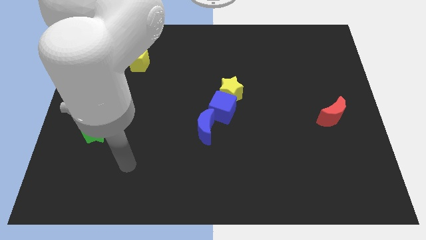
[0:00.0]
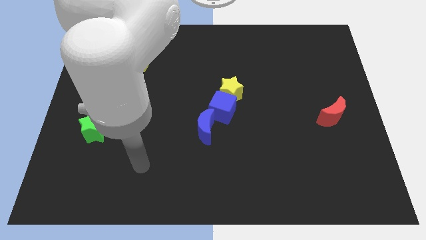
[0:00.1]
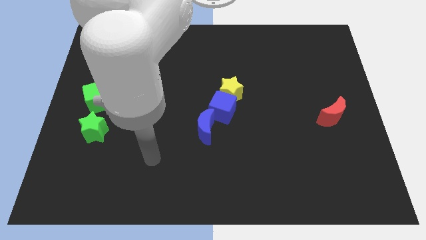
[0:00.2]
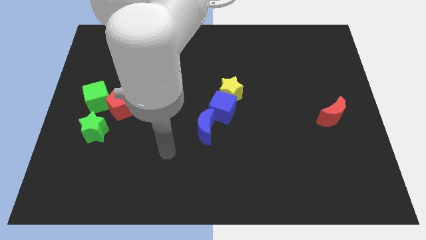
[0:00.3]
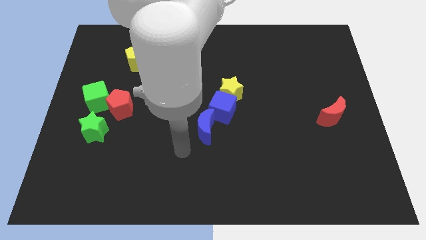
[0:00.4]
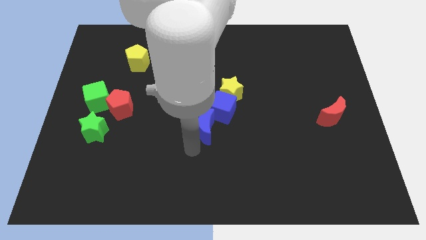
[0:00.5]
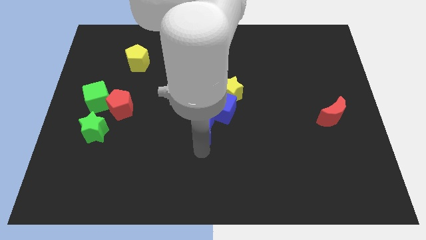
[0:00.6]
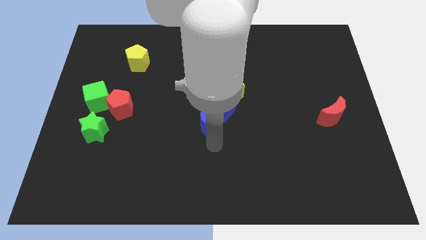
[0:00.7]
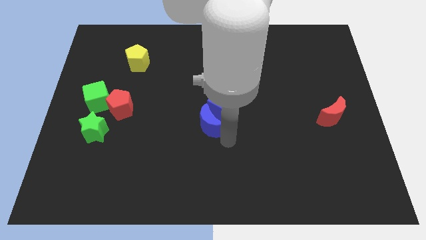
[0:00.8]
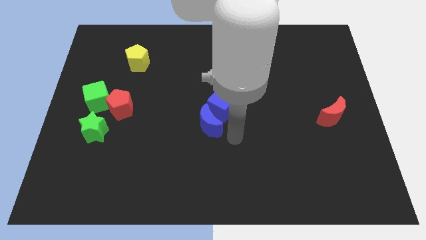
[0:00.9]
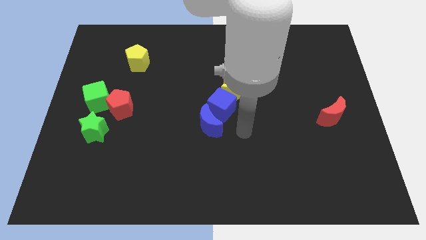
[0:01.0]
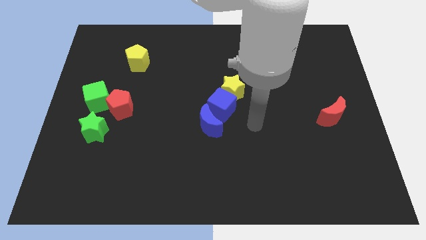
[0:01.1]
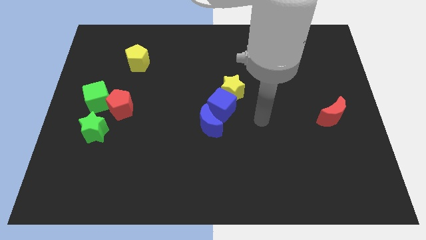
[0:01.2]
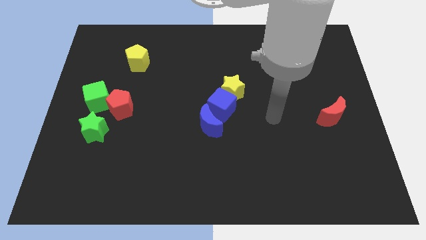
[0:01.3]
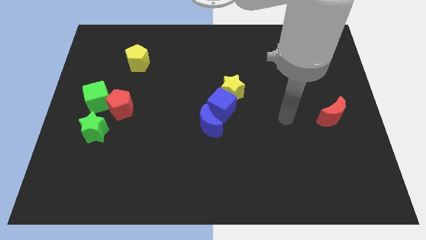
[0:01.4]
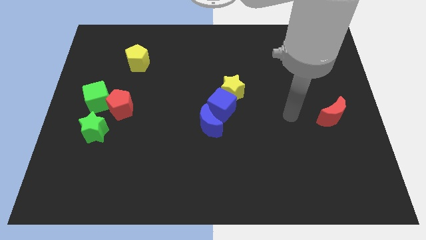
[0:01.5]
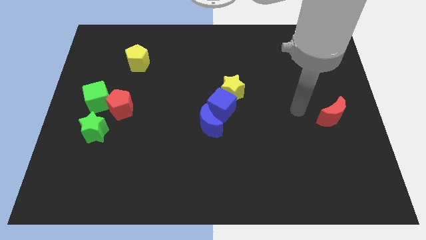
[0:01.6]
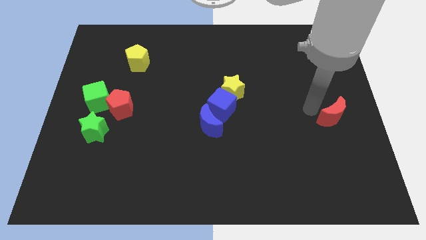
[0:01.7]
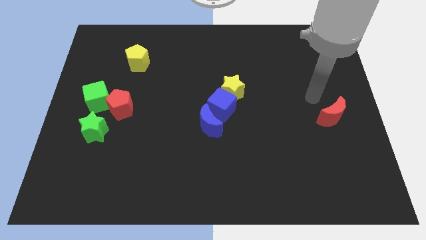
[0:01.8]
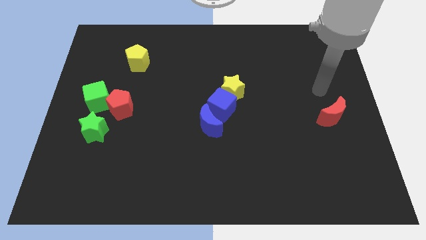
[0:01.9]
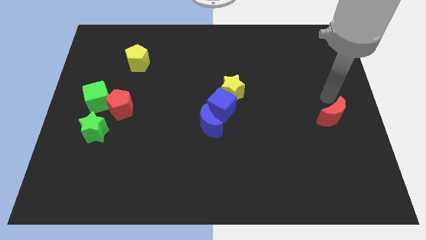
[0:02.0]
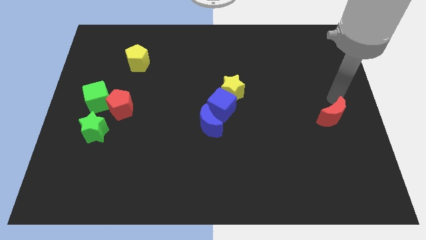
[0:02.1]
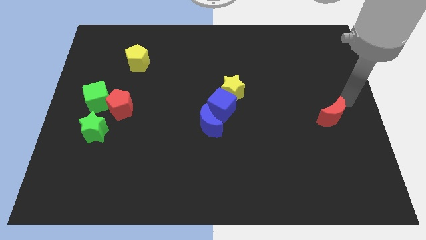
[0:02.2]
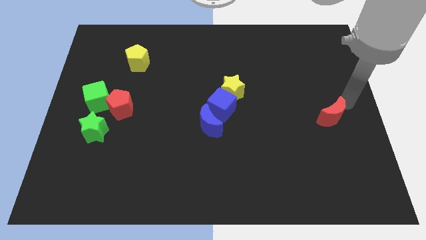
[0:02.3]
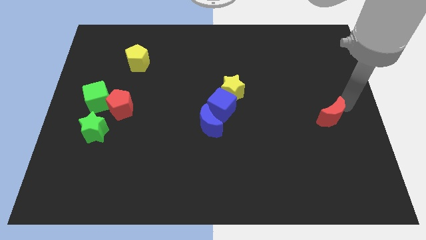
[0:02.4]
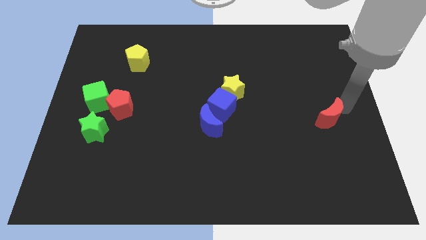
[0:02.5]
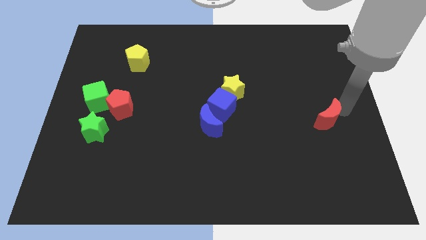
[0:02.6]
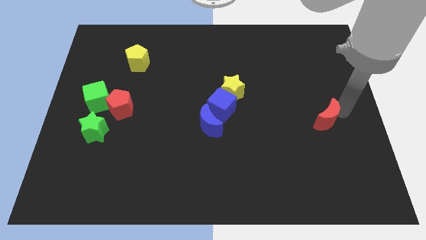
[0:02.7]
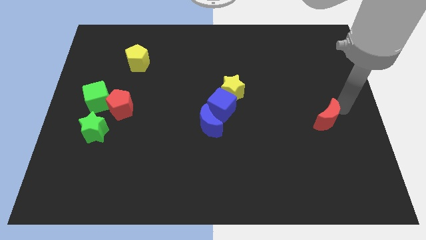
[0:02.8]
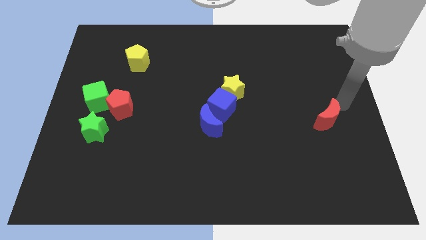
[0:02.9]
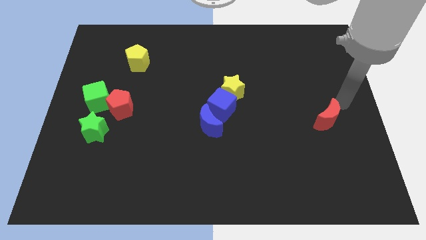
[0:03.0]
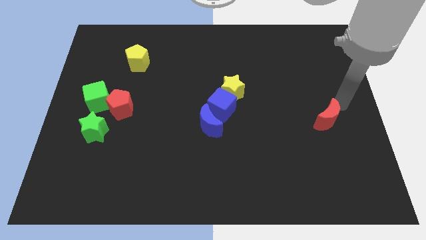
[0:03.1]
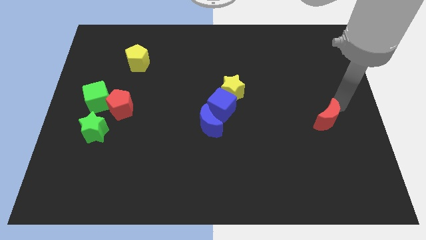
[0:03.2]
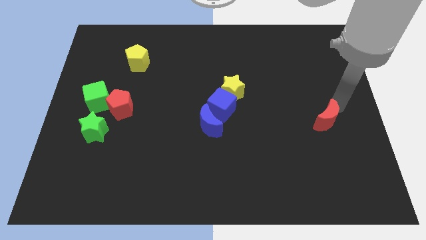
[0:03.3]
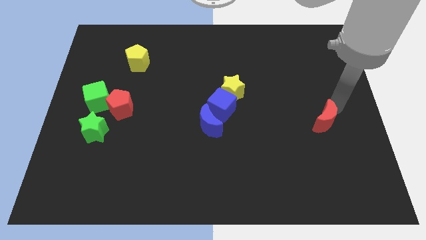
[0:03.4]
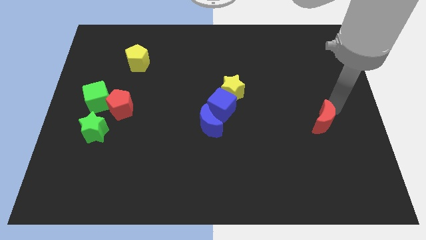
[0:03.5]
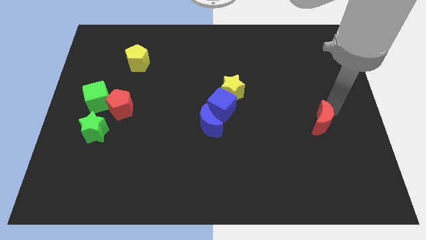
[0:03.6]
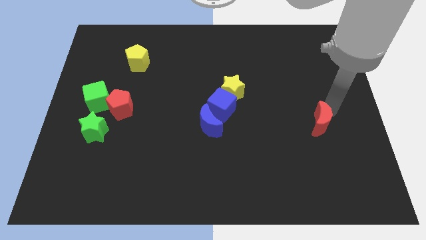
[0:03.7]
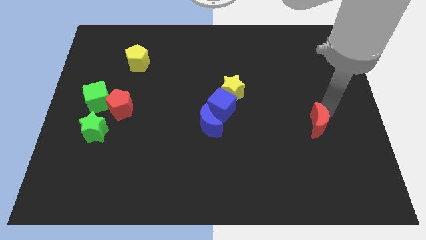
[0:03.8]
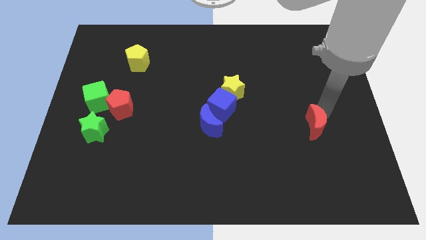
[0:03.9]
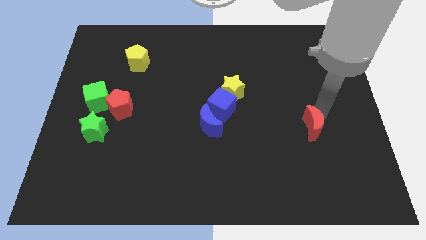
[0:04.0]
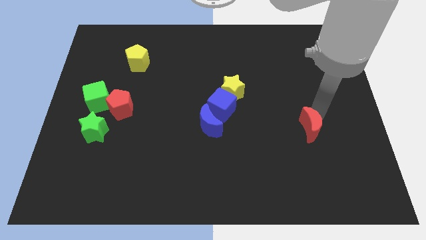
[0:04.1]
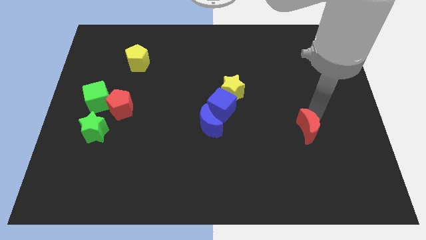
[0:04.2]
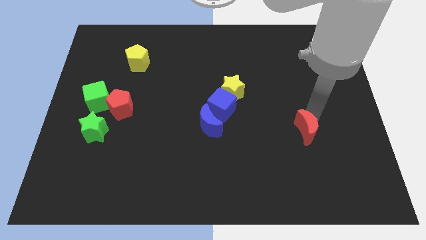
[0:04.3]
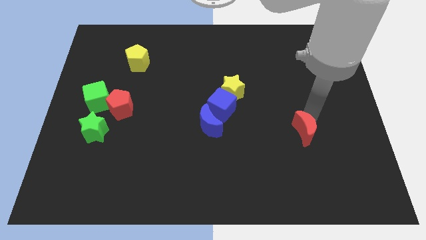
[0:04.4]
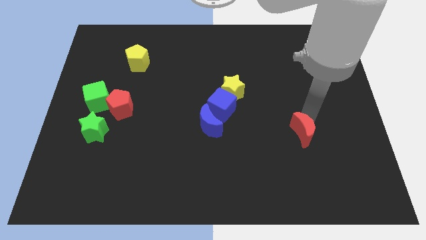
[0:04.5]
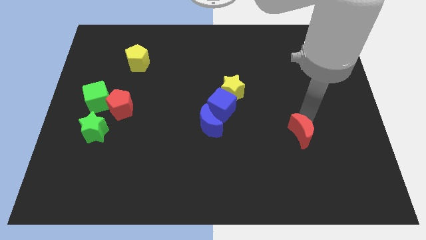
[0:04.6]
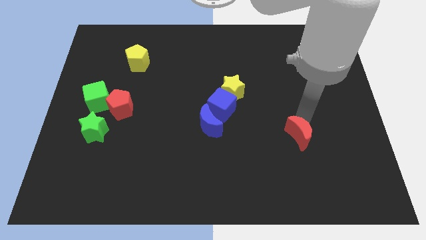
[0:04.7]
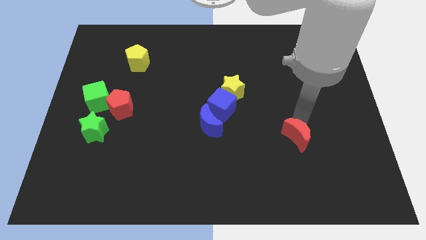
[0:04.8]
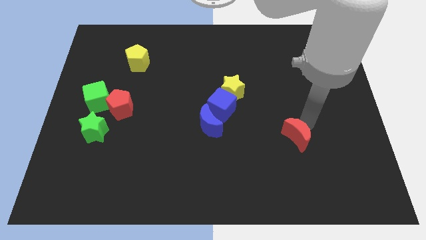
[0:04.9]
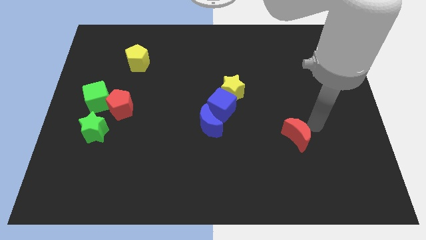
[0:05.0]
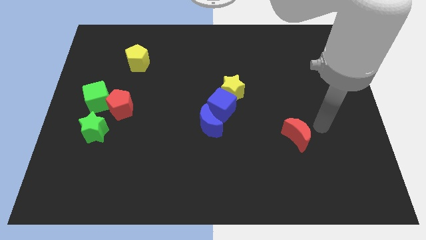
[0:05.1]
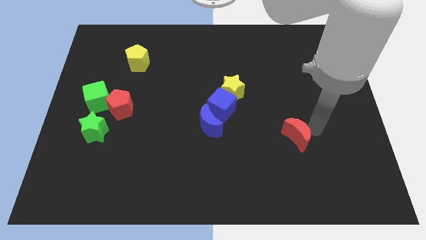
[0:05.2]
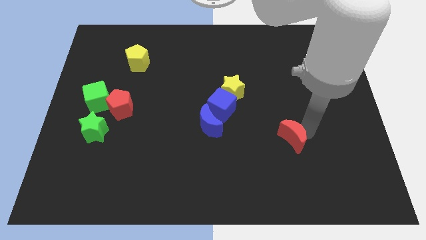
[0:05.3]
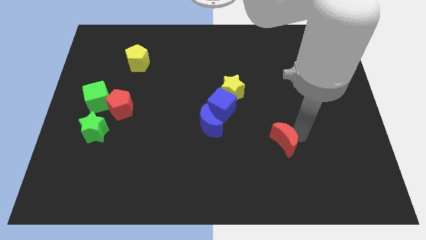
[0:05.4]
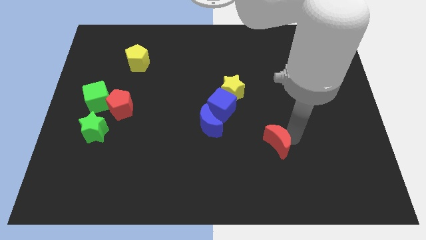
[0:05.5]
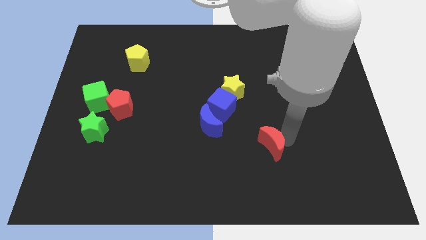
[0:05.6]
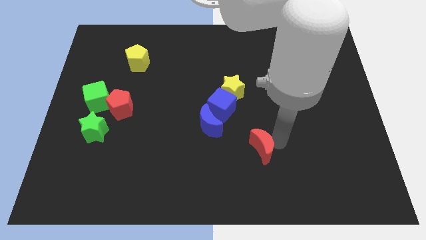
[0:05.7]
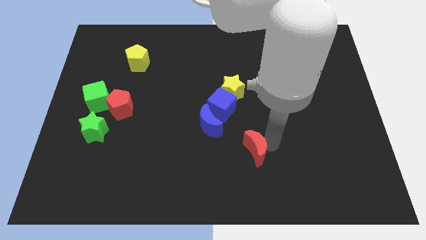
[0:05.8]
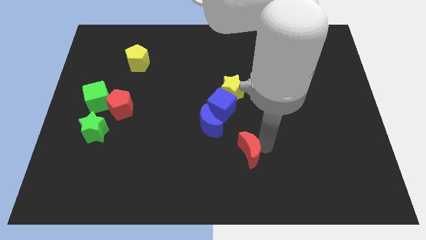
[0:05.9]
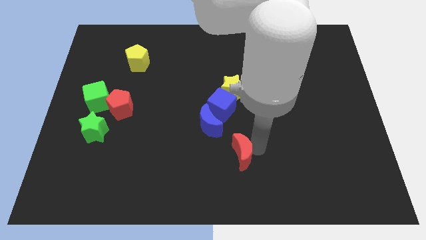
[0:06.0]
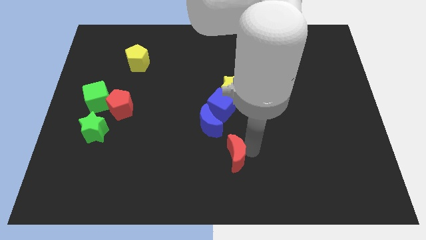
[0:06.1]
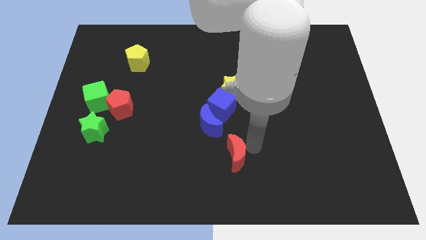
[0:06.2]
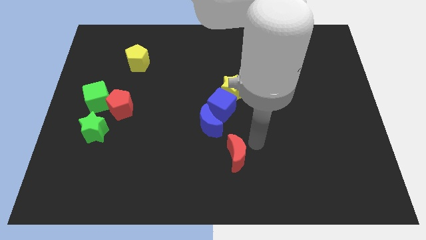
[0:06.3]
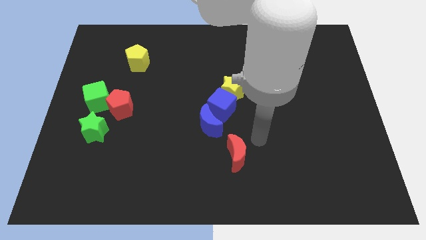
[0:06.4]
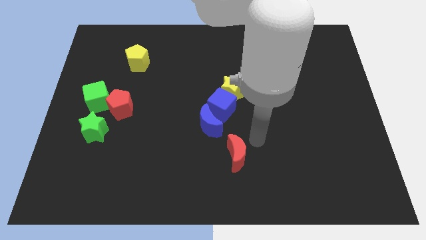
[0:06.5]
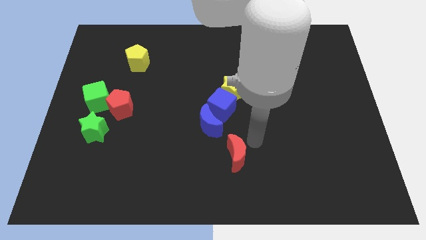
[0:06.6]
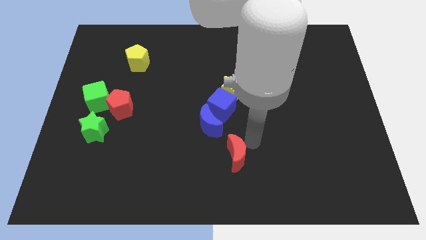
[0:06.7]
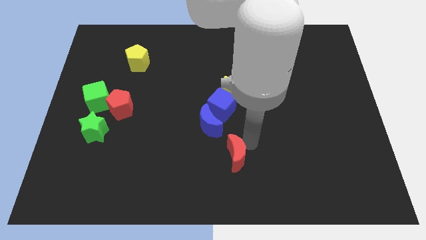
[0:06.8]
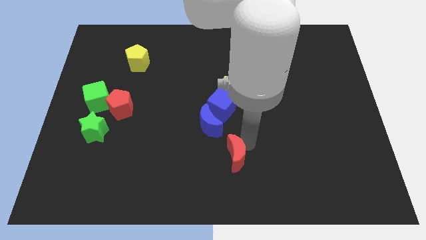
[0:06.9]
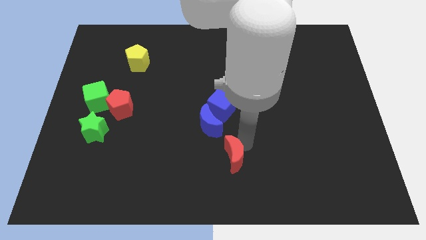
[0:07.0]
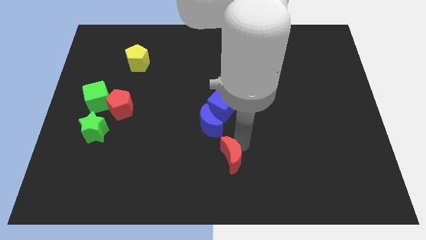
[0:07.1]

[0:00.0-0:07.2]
push the red moon to the bottom side of the blue moon
